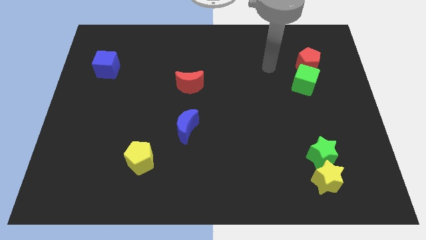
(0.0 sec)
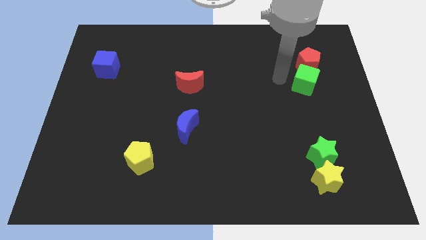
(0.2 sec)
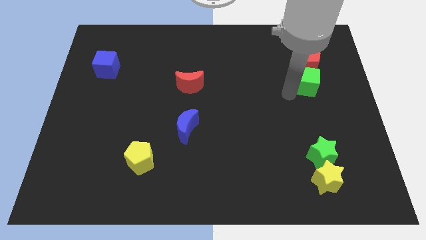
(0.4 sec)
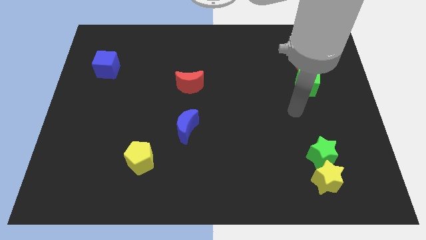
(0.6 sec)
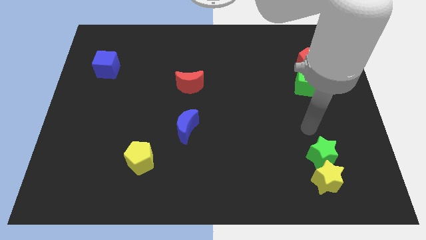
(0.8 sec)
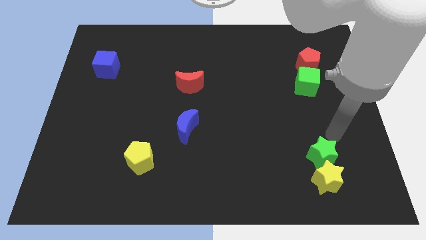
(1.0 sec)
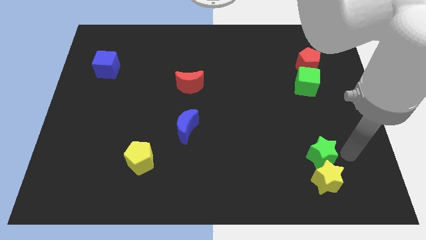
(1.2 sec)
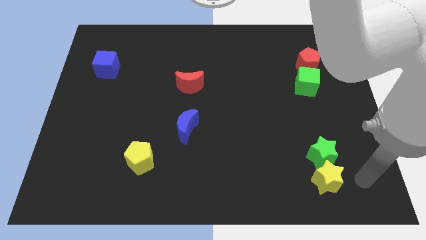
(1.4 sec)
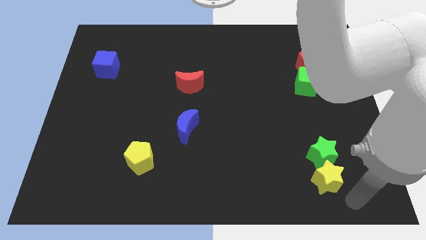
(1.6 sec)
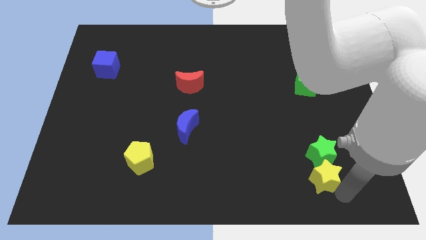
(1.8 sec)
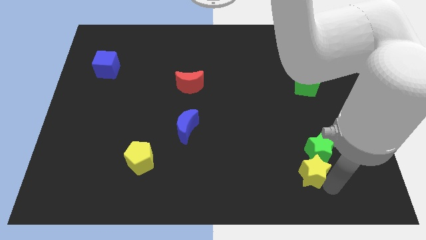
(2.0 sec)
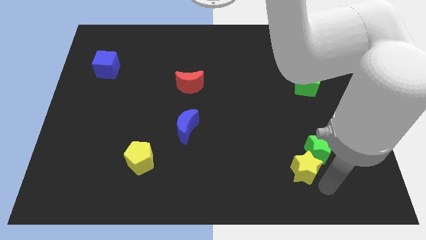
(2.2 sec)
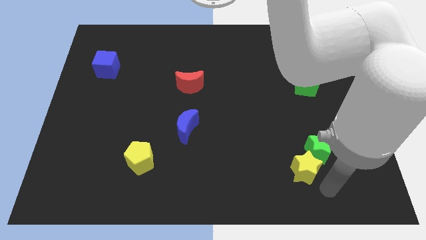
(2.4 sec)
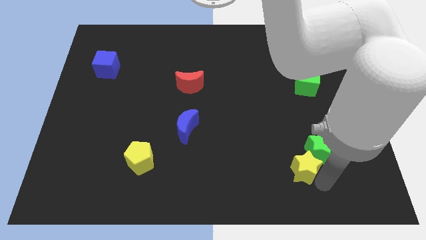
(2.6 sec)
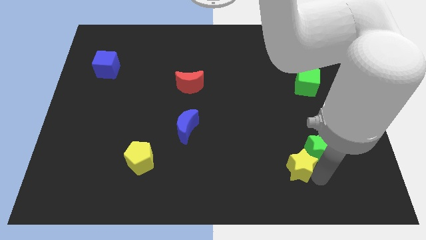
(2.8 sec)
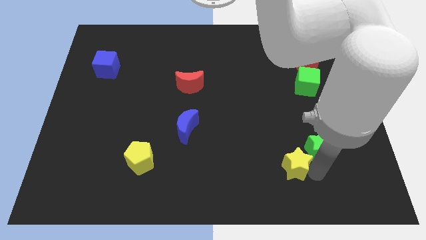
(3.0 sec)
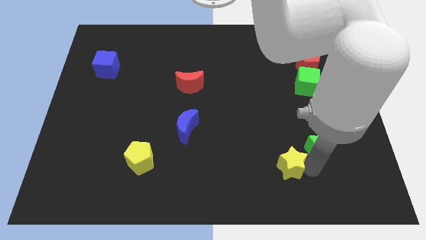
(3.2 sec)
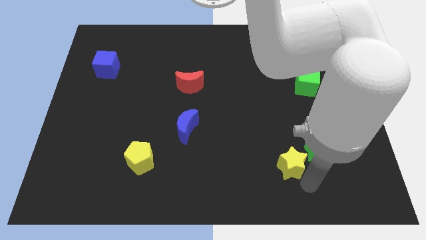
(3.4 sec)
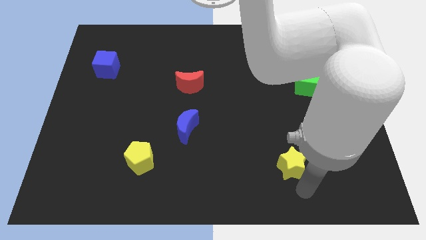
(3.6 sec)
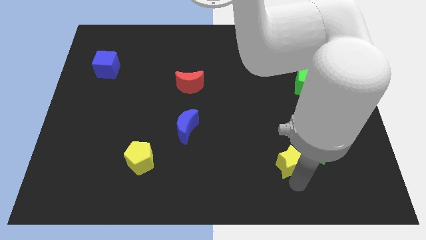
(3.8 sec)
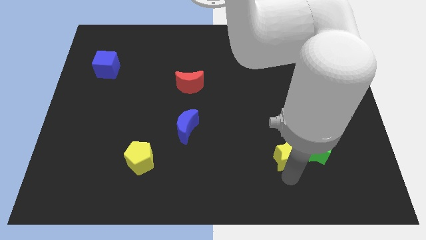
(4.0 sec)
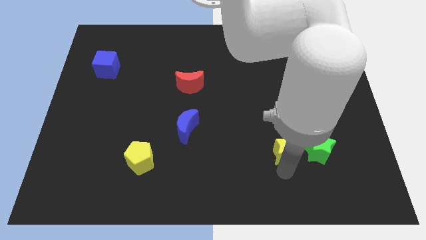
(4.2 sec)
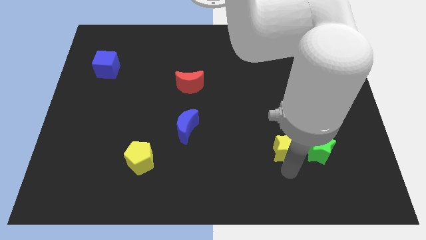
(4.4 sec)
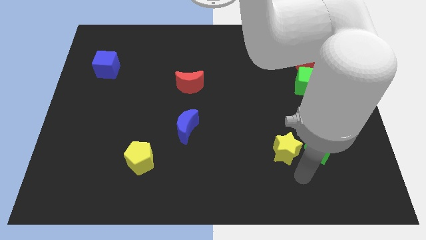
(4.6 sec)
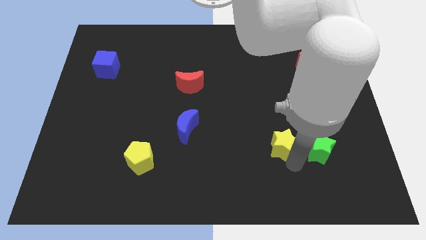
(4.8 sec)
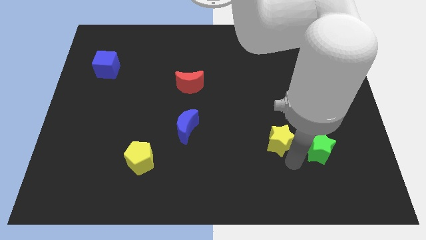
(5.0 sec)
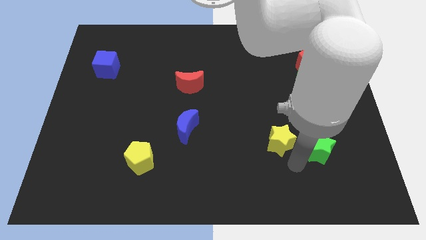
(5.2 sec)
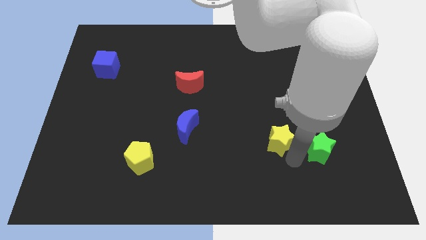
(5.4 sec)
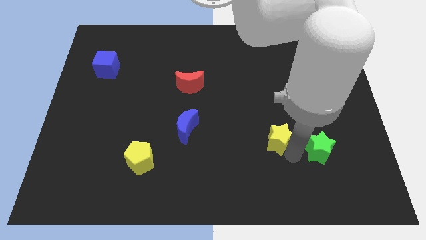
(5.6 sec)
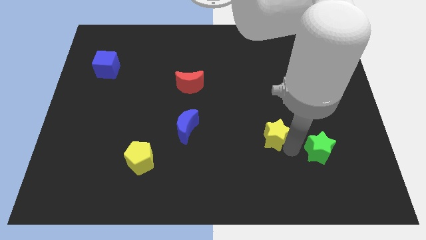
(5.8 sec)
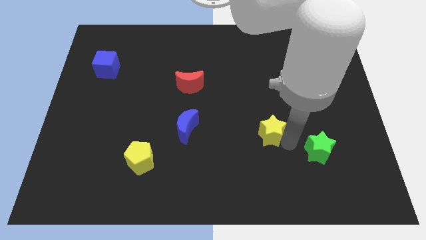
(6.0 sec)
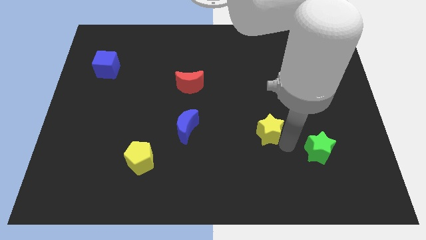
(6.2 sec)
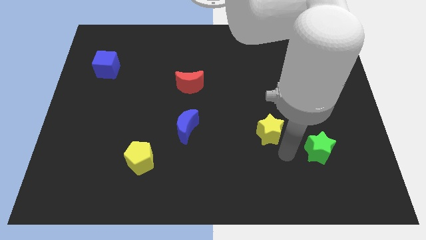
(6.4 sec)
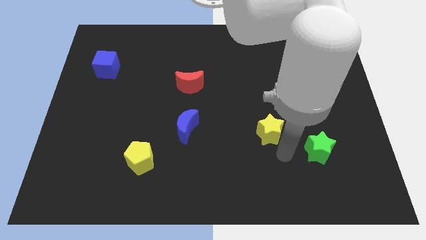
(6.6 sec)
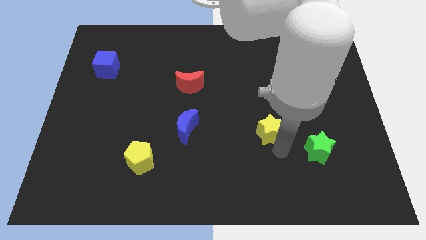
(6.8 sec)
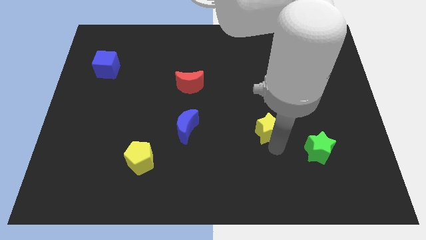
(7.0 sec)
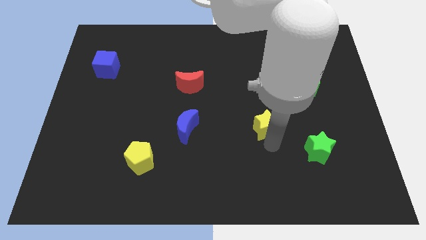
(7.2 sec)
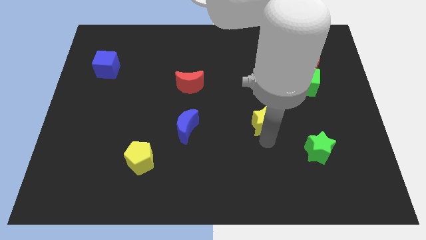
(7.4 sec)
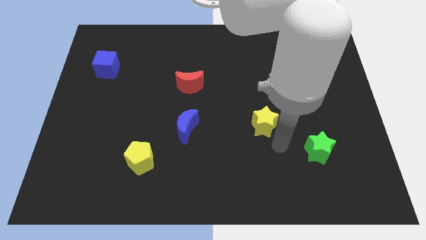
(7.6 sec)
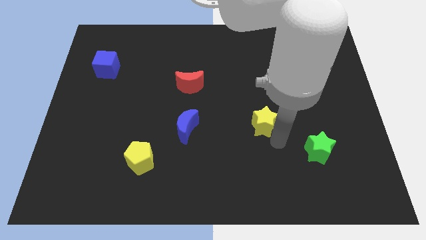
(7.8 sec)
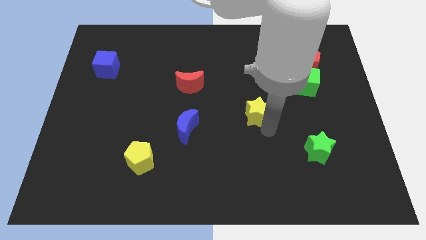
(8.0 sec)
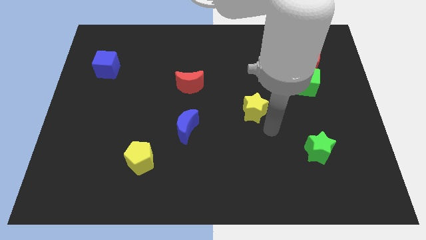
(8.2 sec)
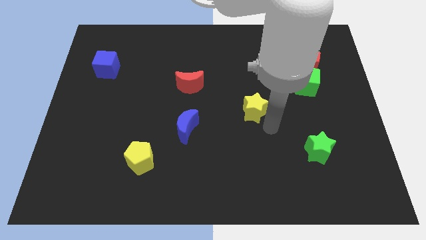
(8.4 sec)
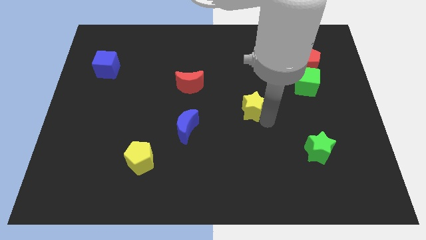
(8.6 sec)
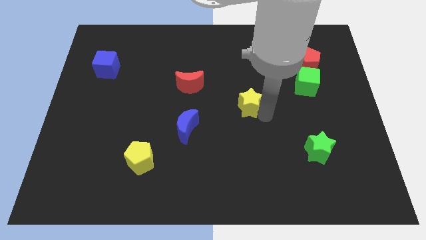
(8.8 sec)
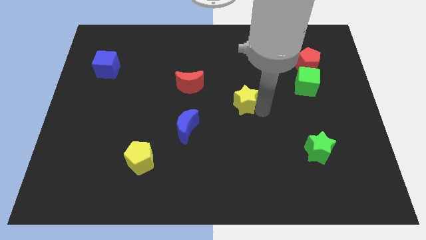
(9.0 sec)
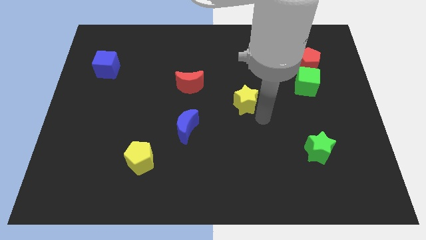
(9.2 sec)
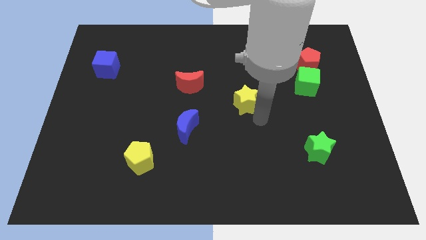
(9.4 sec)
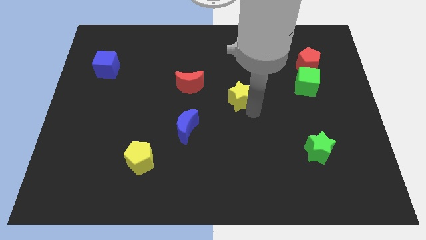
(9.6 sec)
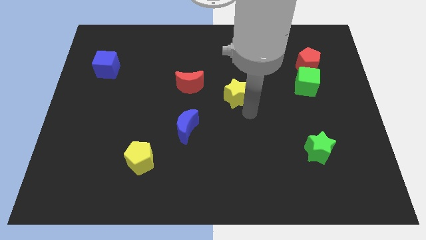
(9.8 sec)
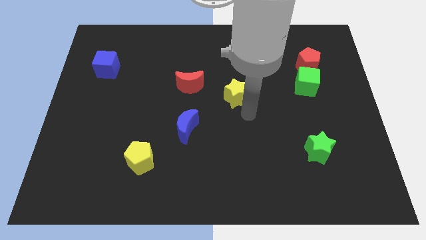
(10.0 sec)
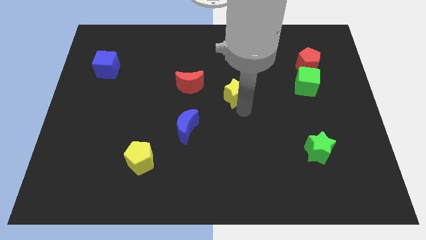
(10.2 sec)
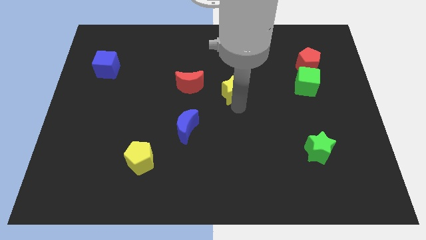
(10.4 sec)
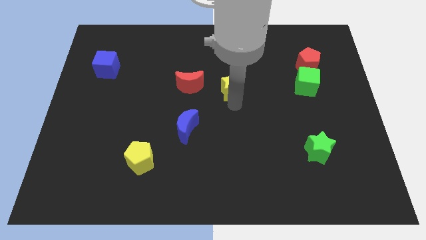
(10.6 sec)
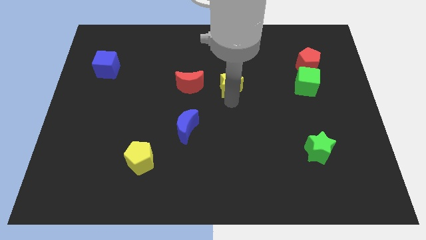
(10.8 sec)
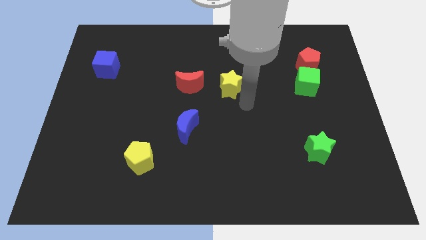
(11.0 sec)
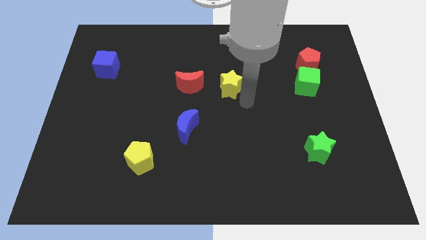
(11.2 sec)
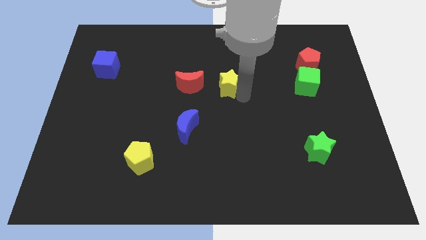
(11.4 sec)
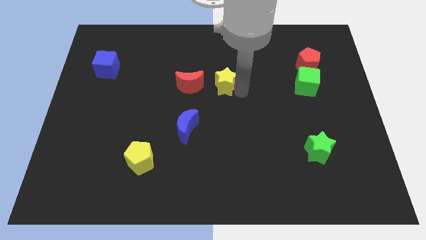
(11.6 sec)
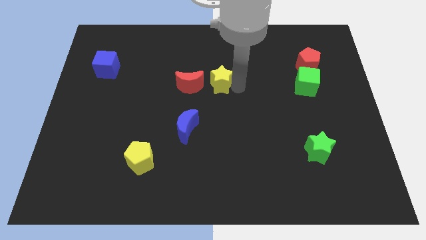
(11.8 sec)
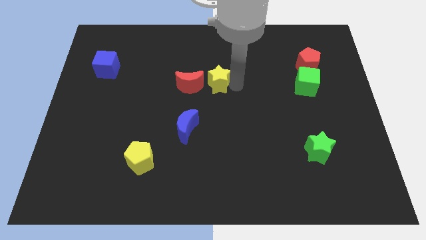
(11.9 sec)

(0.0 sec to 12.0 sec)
put the yellow star to the top right side of the red moon

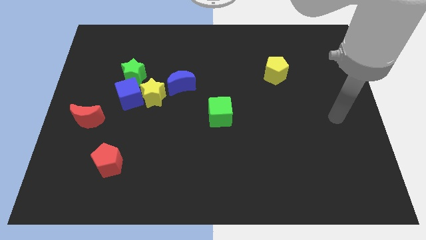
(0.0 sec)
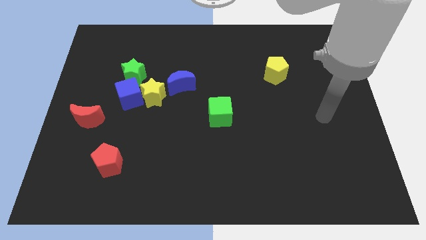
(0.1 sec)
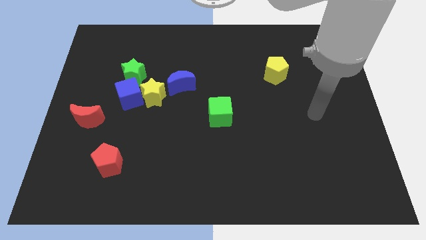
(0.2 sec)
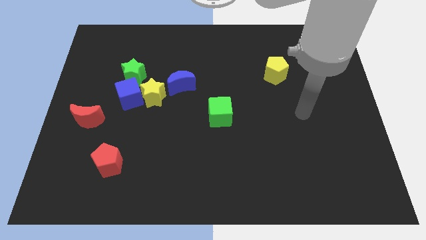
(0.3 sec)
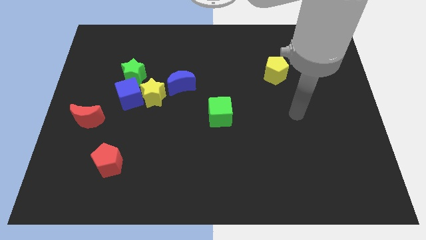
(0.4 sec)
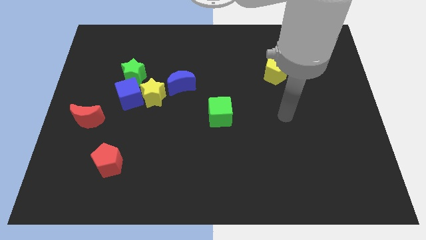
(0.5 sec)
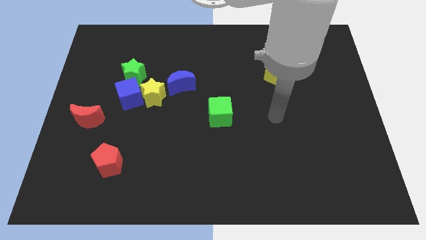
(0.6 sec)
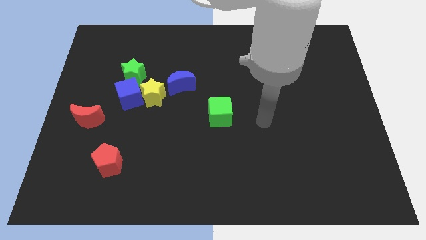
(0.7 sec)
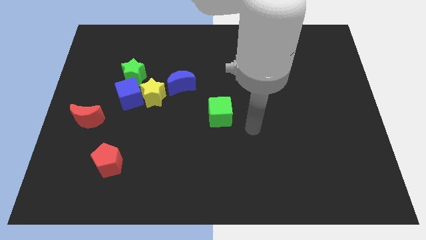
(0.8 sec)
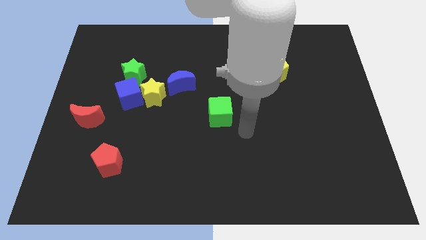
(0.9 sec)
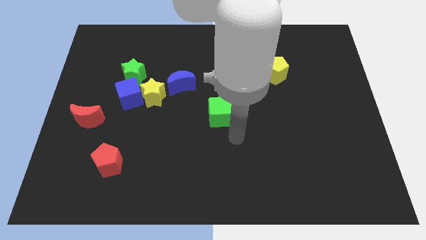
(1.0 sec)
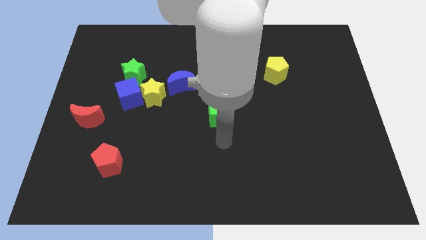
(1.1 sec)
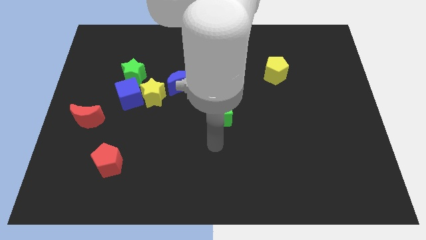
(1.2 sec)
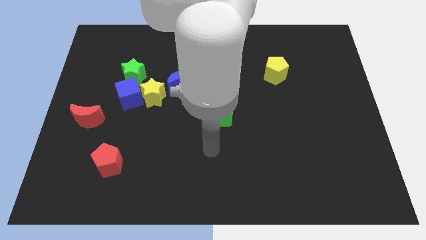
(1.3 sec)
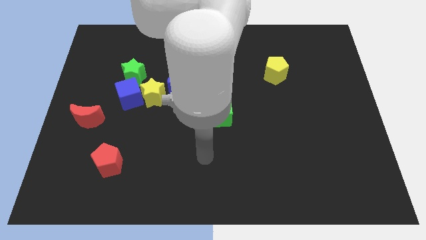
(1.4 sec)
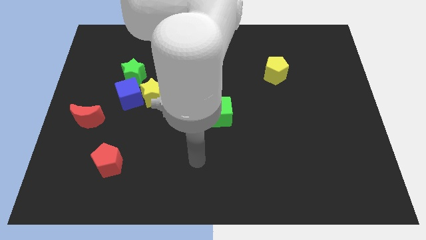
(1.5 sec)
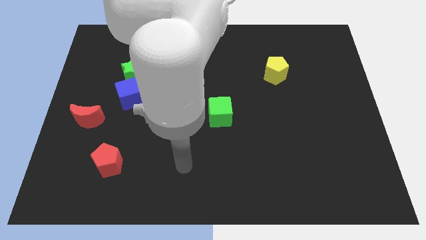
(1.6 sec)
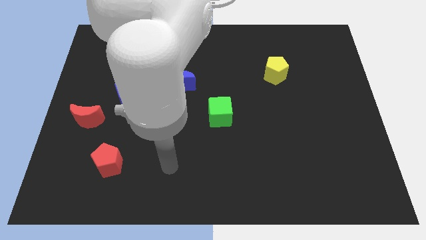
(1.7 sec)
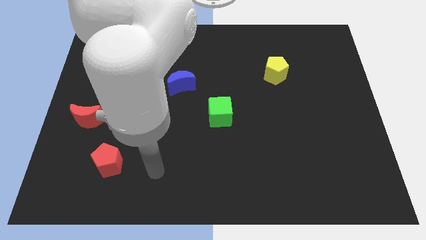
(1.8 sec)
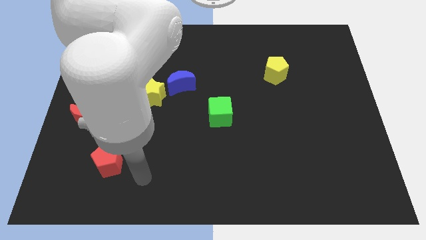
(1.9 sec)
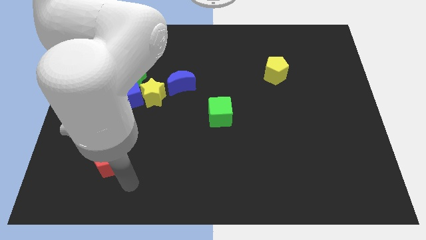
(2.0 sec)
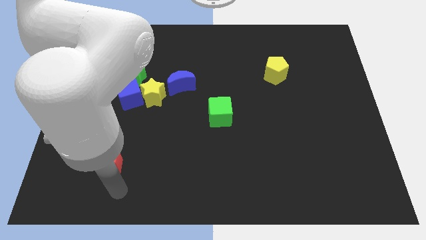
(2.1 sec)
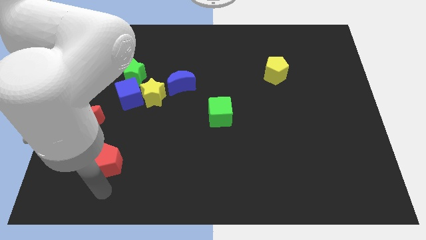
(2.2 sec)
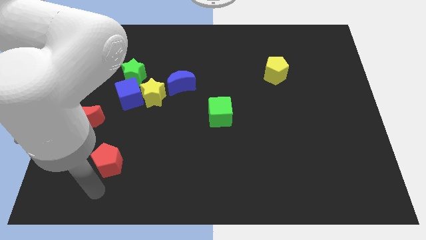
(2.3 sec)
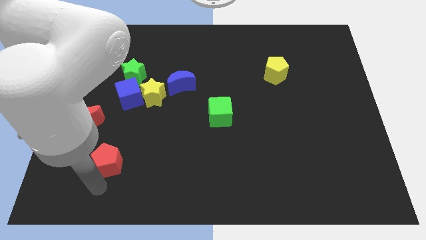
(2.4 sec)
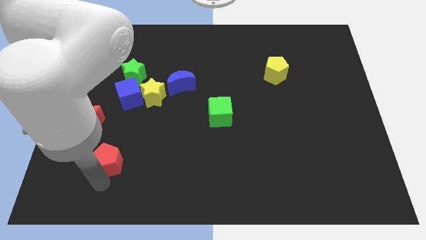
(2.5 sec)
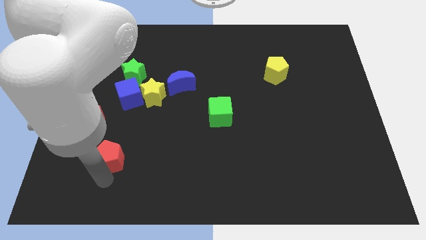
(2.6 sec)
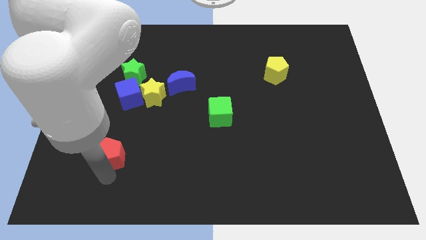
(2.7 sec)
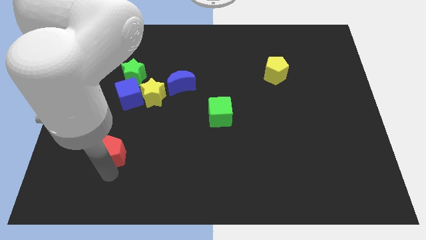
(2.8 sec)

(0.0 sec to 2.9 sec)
push the red pentagon to the bottom side of the blue cube
